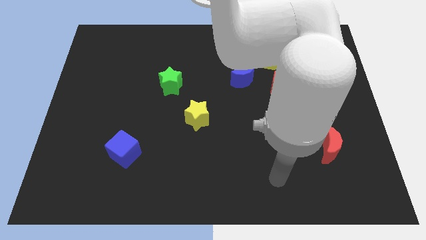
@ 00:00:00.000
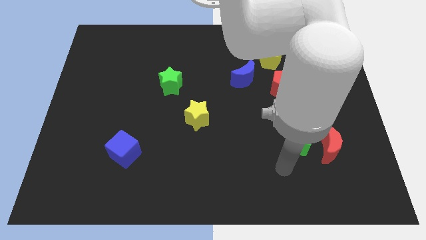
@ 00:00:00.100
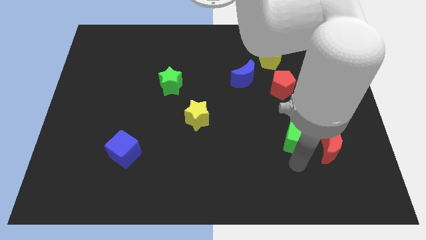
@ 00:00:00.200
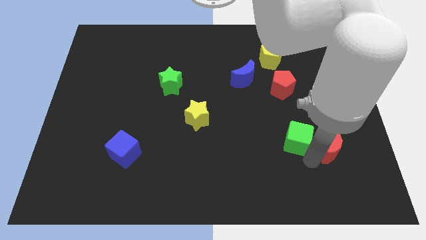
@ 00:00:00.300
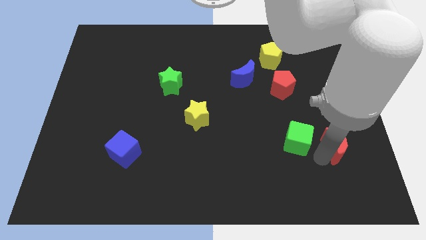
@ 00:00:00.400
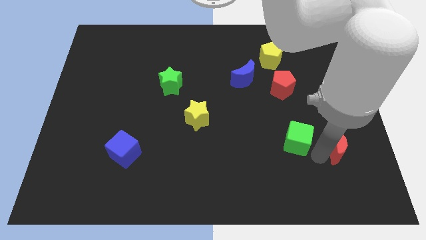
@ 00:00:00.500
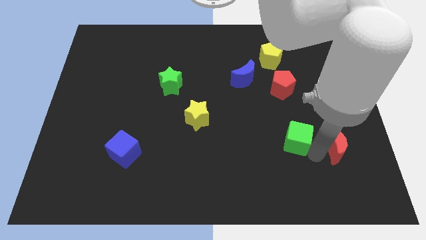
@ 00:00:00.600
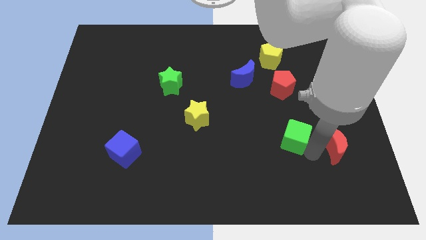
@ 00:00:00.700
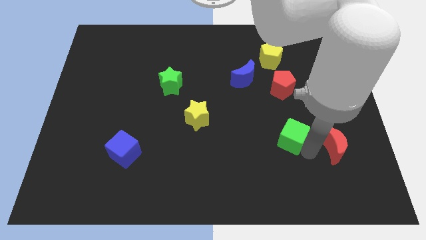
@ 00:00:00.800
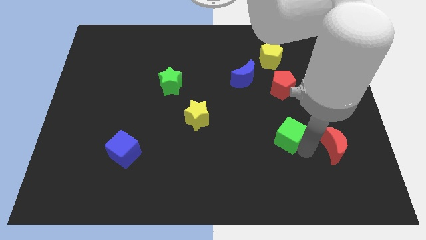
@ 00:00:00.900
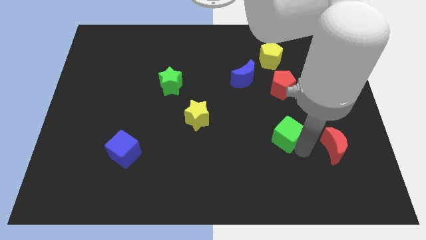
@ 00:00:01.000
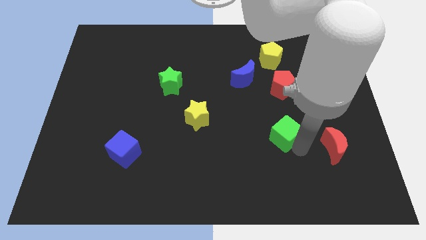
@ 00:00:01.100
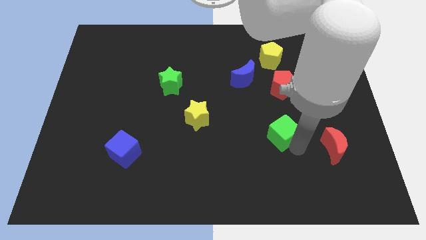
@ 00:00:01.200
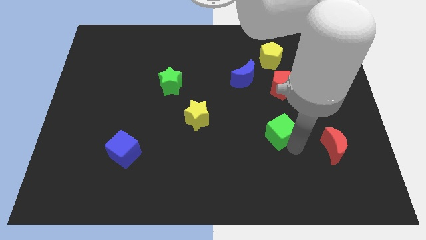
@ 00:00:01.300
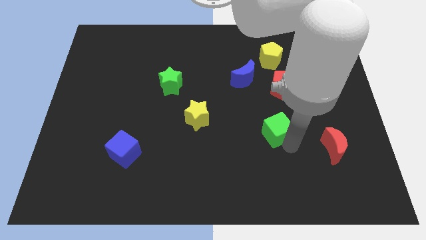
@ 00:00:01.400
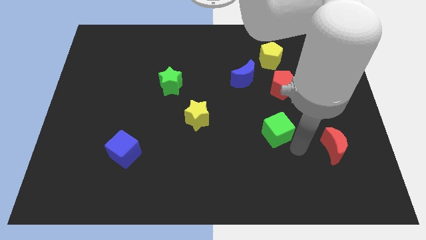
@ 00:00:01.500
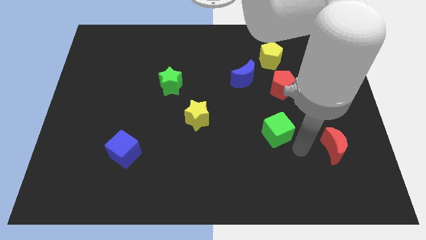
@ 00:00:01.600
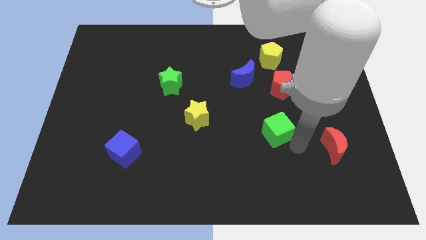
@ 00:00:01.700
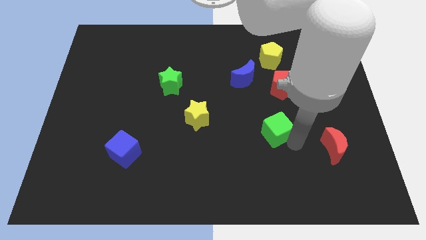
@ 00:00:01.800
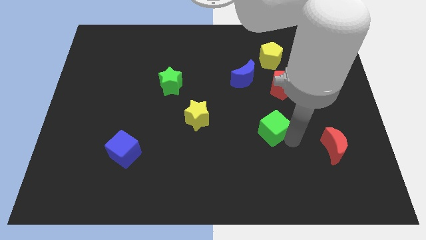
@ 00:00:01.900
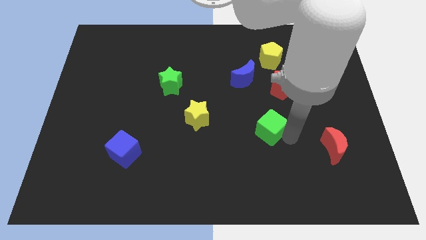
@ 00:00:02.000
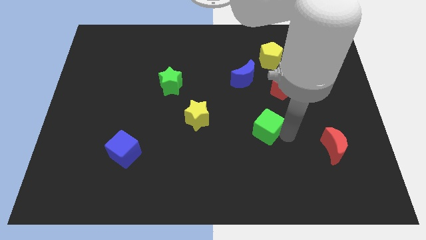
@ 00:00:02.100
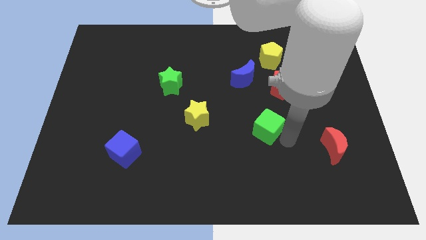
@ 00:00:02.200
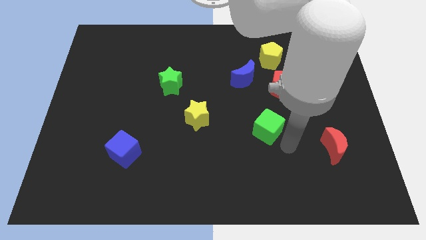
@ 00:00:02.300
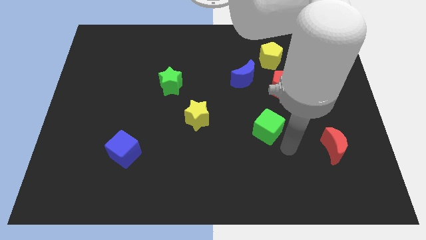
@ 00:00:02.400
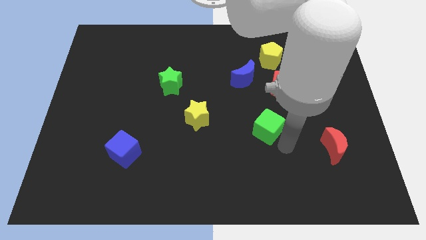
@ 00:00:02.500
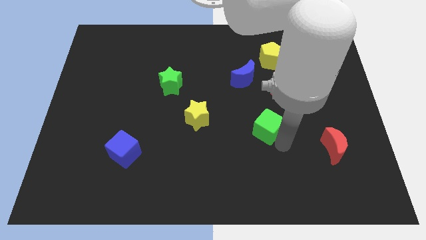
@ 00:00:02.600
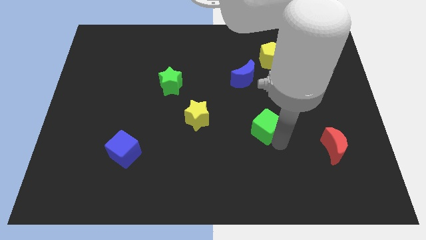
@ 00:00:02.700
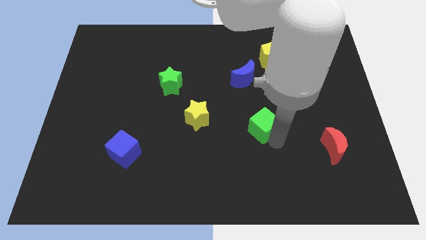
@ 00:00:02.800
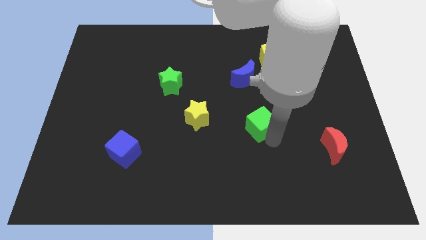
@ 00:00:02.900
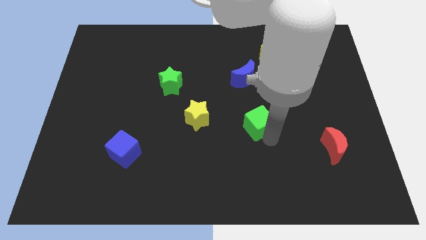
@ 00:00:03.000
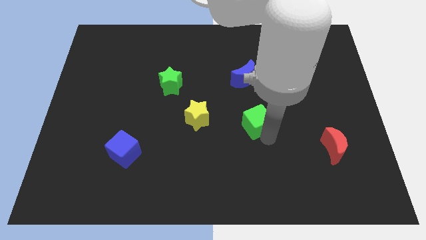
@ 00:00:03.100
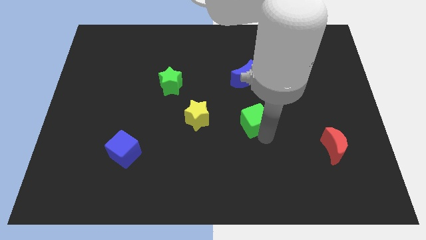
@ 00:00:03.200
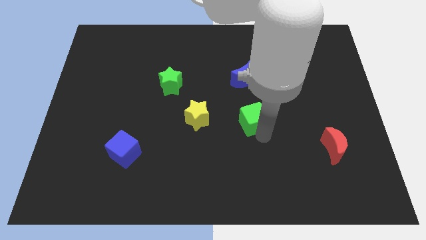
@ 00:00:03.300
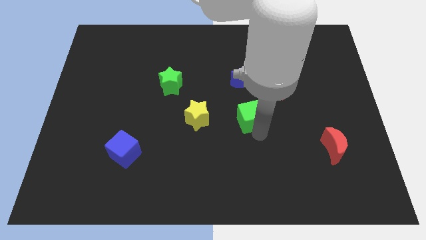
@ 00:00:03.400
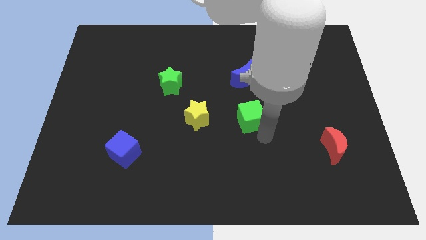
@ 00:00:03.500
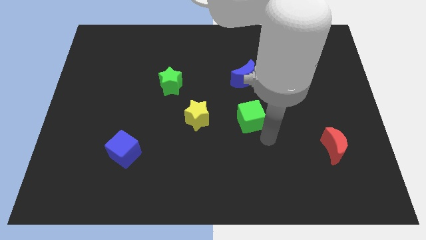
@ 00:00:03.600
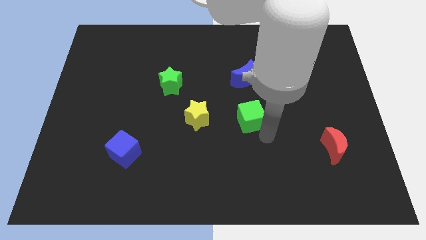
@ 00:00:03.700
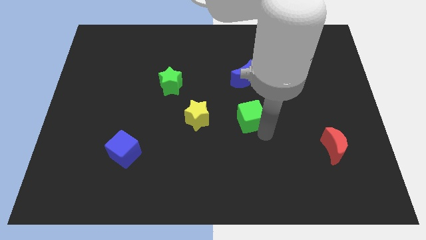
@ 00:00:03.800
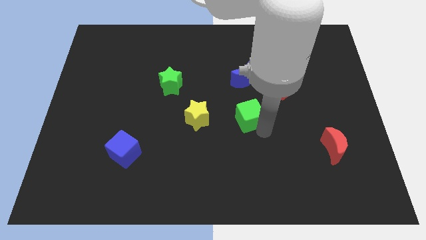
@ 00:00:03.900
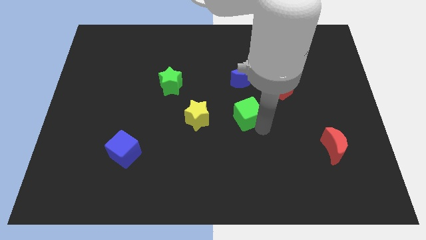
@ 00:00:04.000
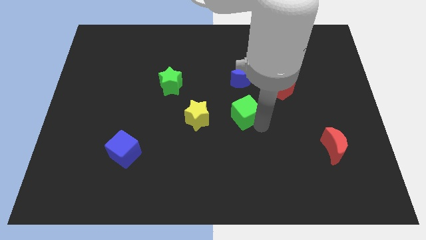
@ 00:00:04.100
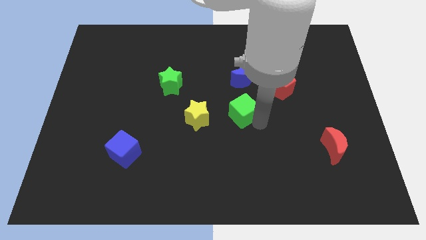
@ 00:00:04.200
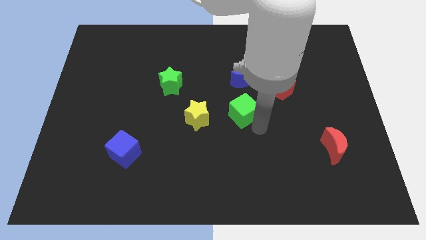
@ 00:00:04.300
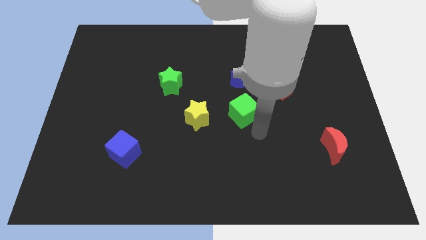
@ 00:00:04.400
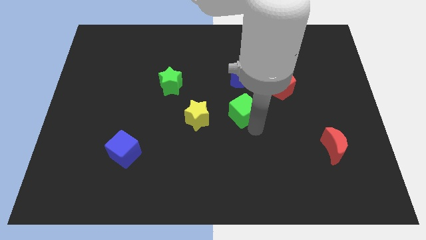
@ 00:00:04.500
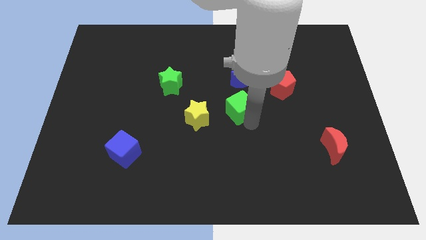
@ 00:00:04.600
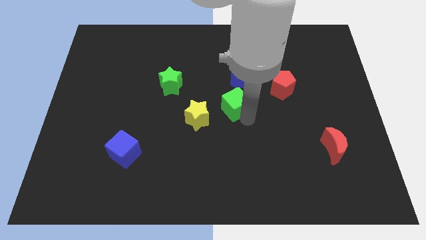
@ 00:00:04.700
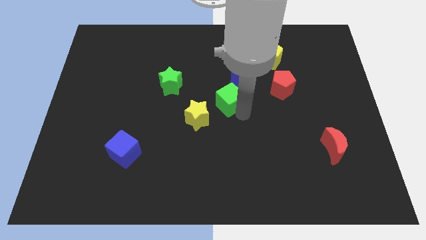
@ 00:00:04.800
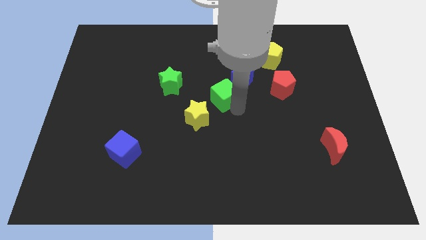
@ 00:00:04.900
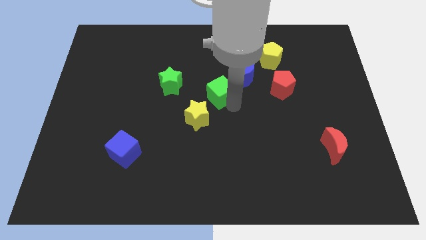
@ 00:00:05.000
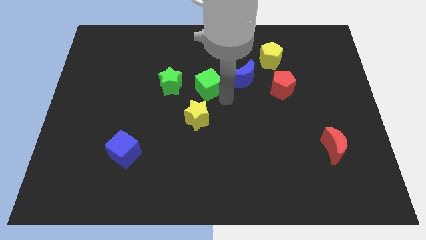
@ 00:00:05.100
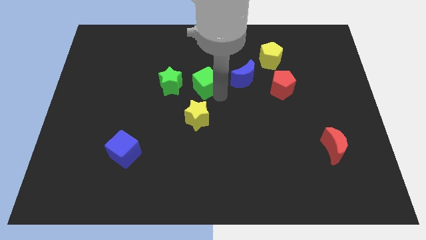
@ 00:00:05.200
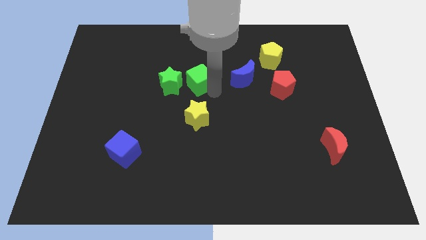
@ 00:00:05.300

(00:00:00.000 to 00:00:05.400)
move the green cube to the top right side of the green star

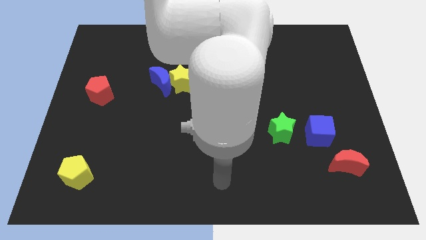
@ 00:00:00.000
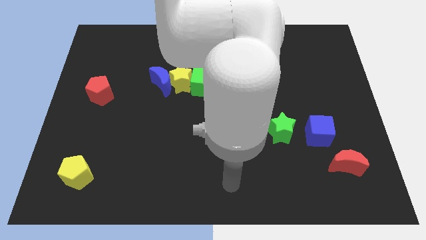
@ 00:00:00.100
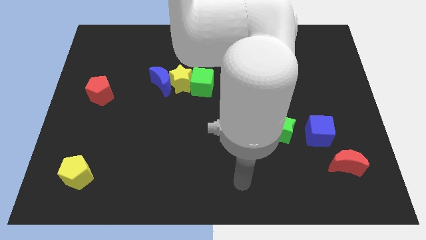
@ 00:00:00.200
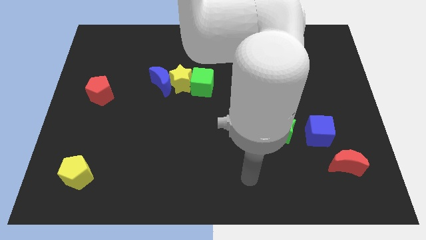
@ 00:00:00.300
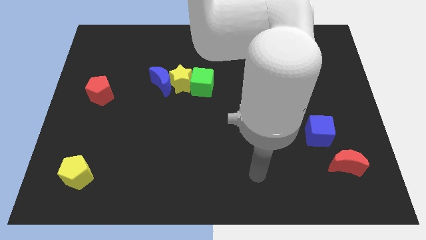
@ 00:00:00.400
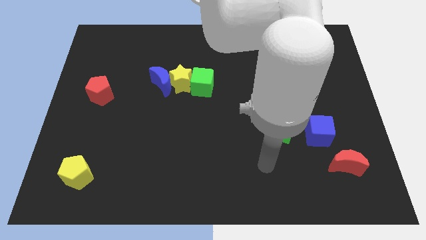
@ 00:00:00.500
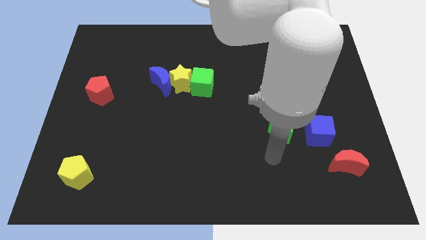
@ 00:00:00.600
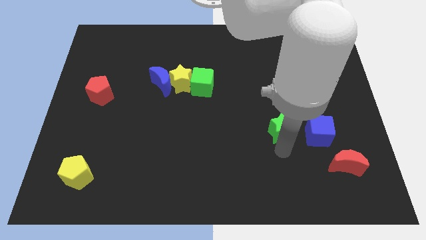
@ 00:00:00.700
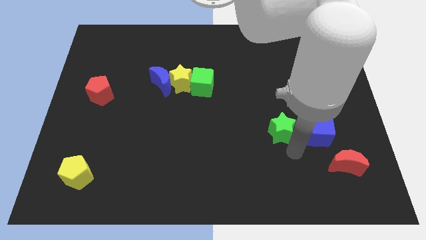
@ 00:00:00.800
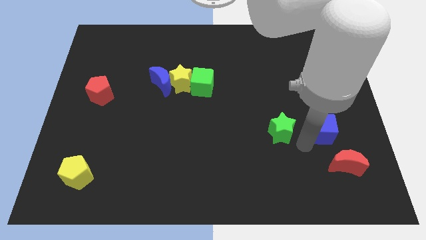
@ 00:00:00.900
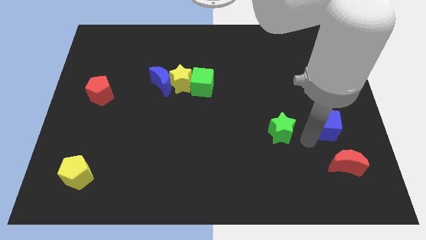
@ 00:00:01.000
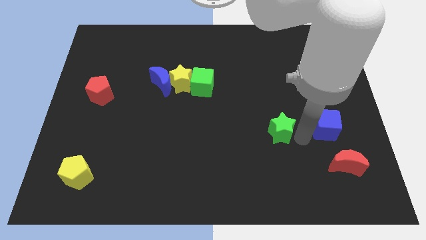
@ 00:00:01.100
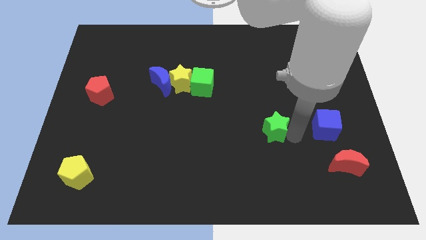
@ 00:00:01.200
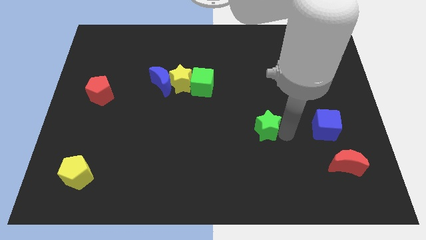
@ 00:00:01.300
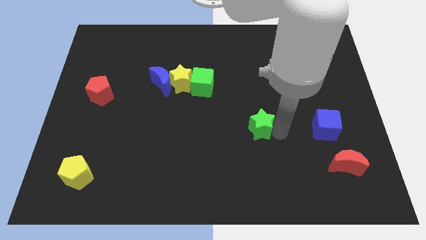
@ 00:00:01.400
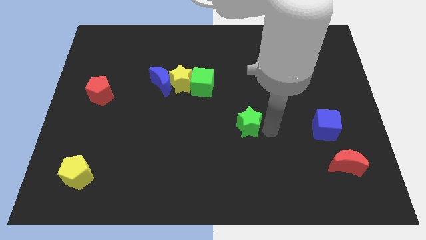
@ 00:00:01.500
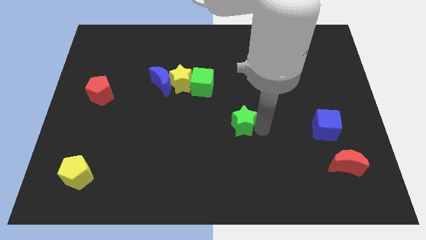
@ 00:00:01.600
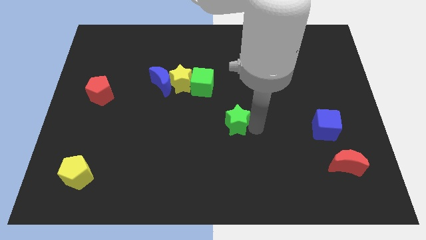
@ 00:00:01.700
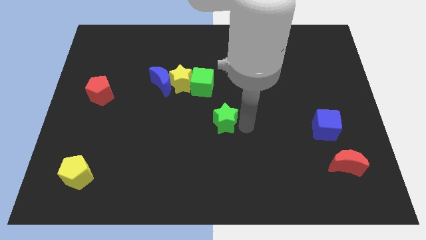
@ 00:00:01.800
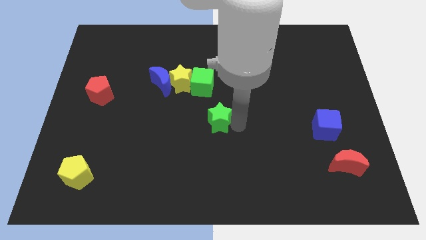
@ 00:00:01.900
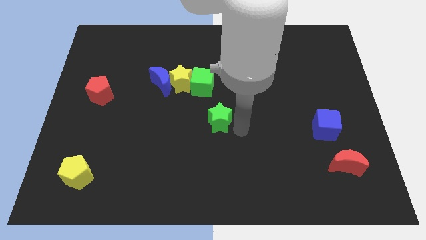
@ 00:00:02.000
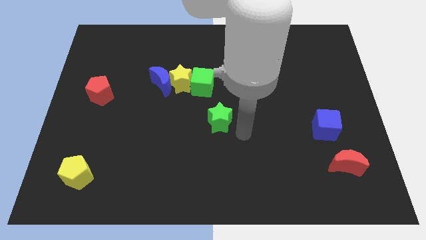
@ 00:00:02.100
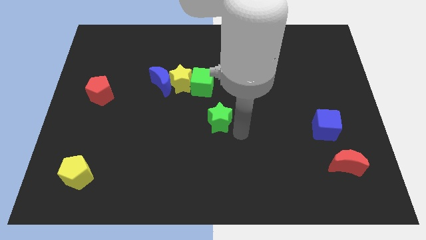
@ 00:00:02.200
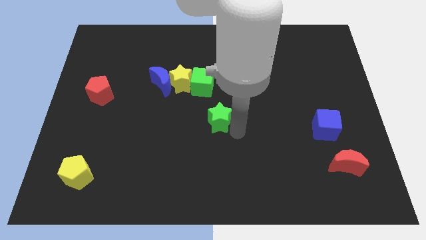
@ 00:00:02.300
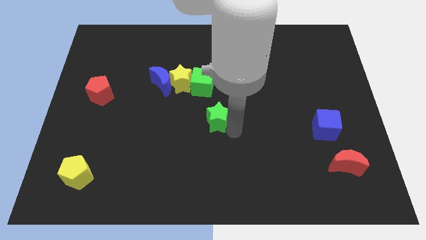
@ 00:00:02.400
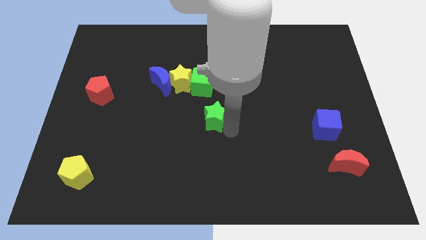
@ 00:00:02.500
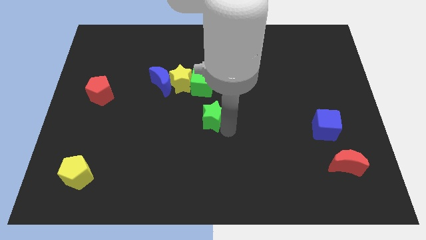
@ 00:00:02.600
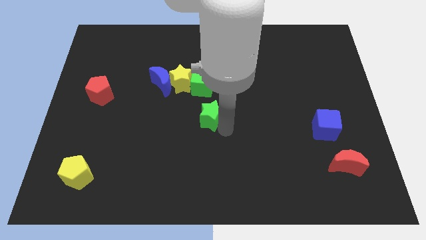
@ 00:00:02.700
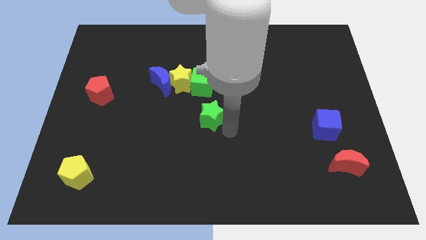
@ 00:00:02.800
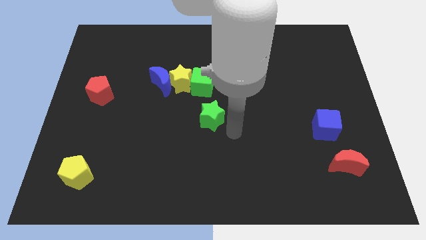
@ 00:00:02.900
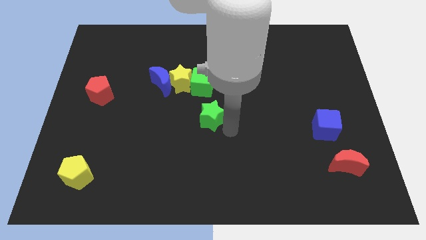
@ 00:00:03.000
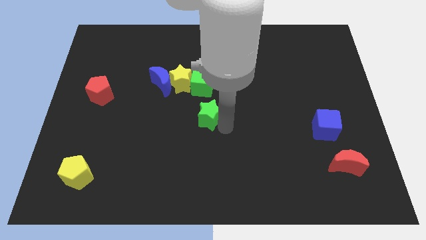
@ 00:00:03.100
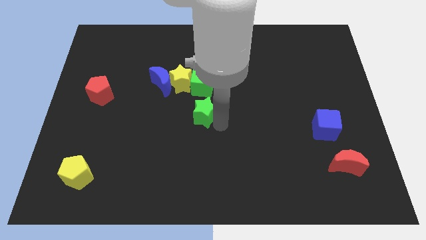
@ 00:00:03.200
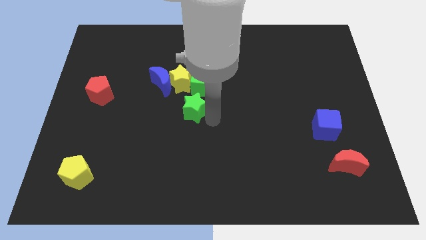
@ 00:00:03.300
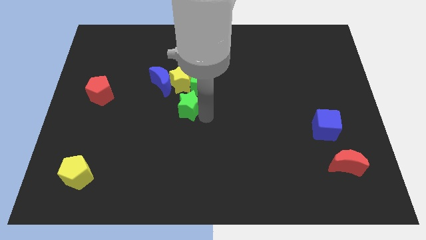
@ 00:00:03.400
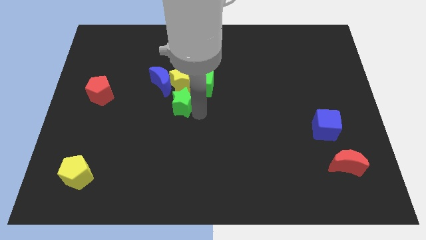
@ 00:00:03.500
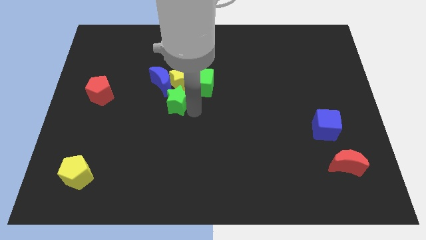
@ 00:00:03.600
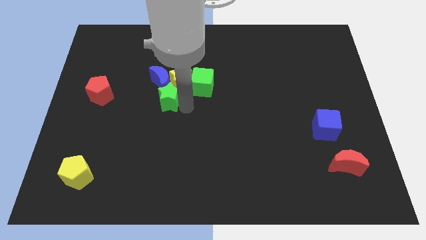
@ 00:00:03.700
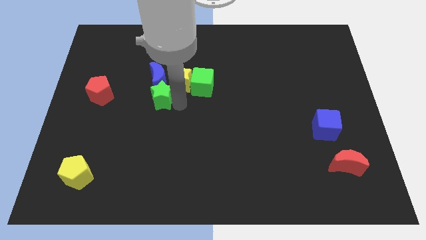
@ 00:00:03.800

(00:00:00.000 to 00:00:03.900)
move the green star to the right of the red pentagon
